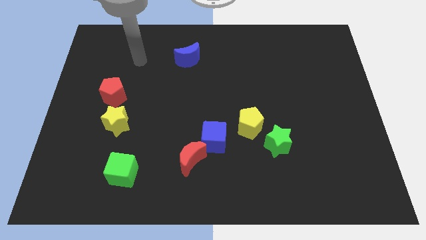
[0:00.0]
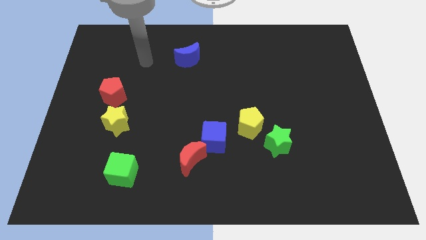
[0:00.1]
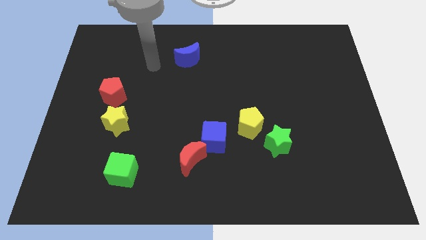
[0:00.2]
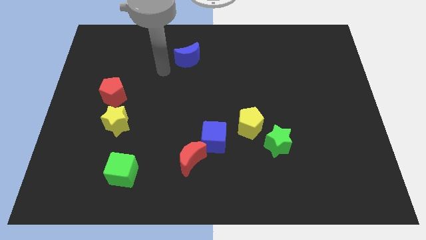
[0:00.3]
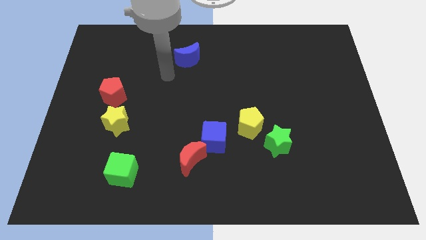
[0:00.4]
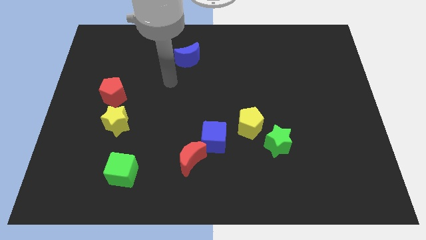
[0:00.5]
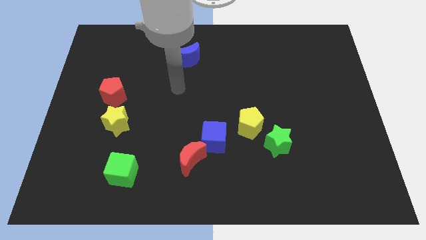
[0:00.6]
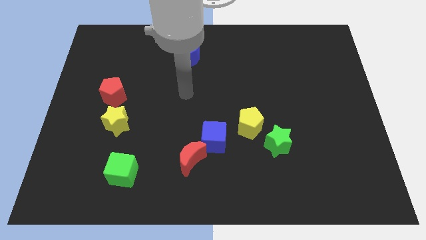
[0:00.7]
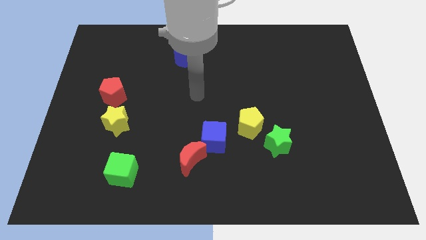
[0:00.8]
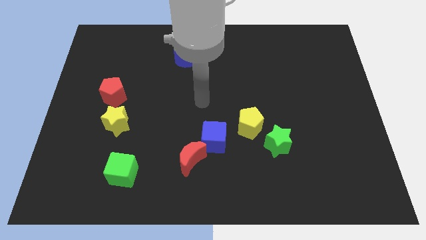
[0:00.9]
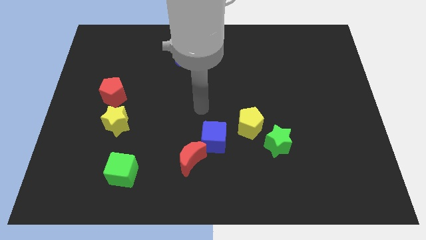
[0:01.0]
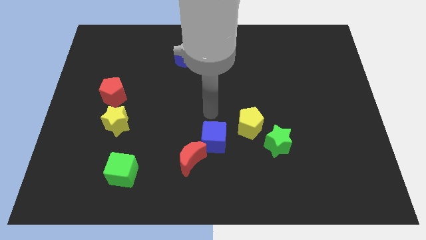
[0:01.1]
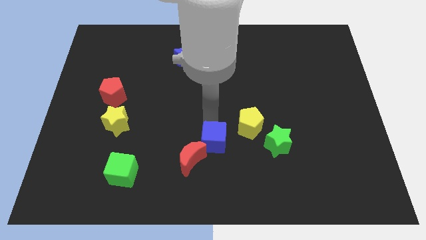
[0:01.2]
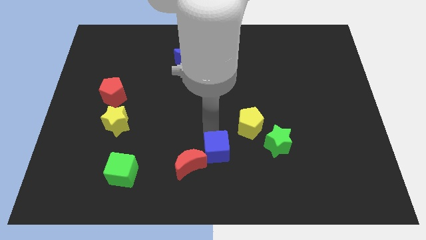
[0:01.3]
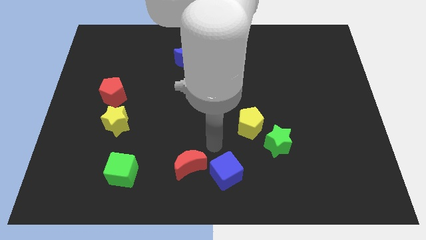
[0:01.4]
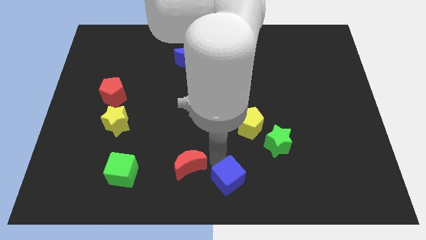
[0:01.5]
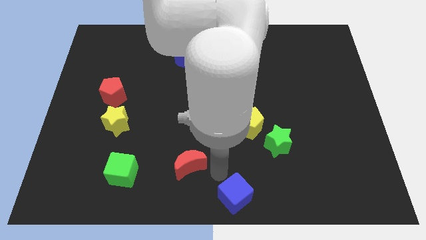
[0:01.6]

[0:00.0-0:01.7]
move the red moon away from the blue cube

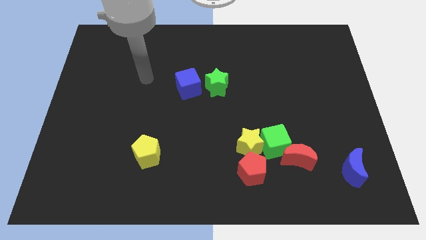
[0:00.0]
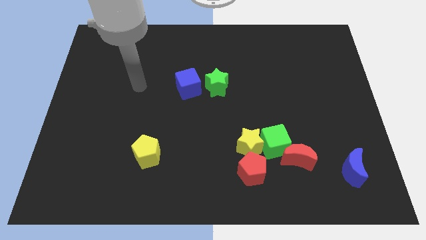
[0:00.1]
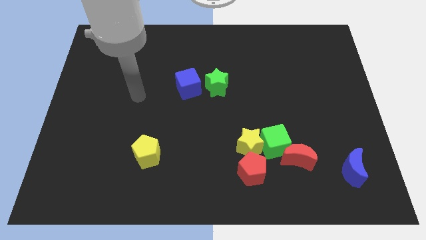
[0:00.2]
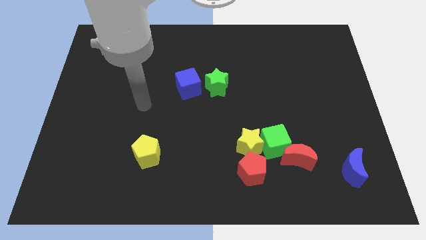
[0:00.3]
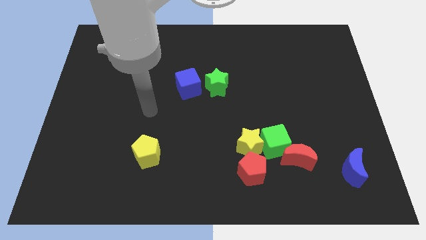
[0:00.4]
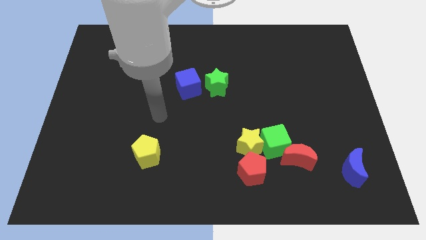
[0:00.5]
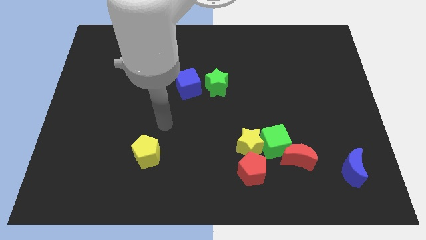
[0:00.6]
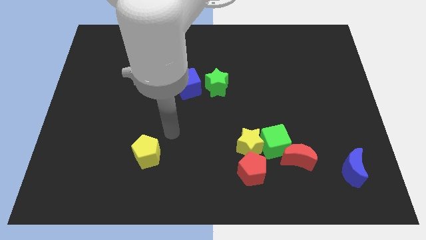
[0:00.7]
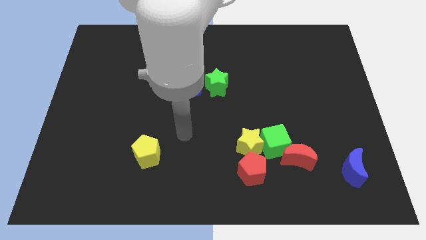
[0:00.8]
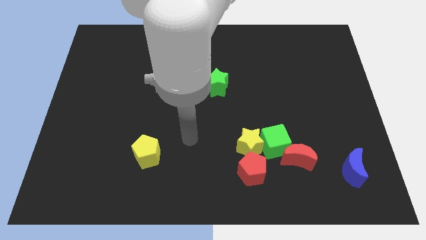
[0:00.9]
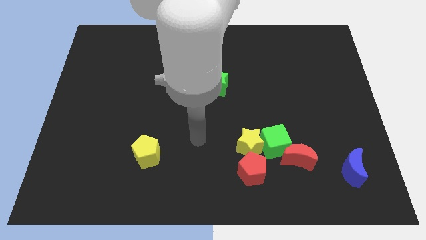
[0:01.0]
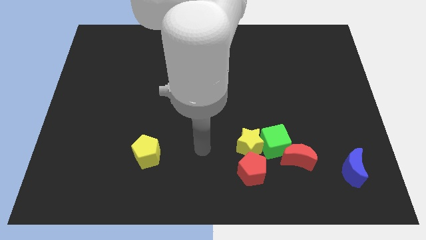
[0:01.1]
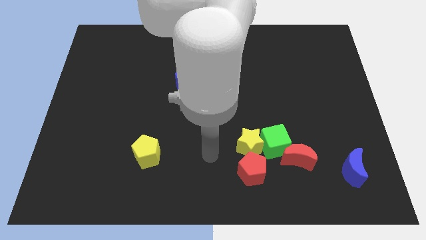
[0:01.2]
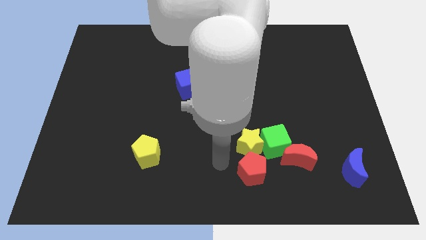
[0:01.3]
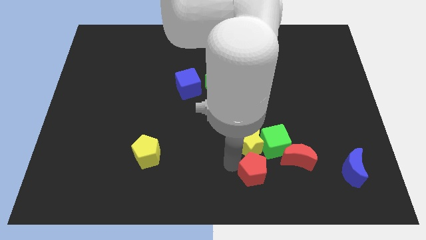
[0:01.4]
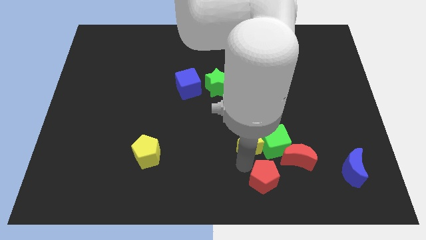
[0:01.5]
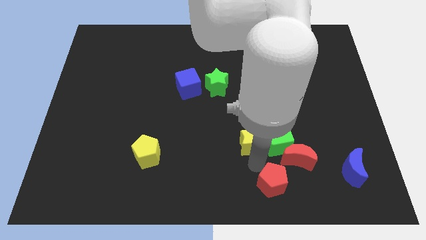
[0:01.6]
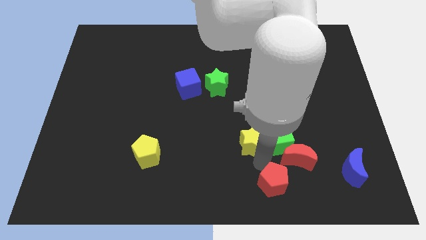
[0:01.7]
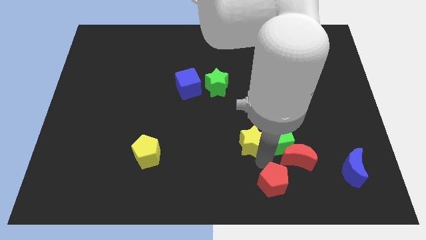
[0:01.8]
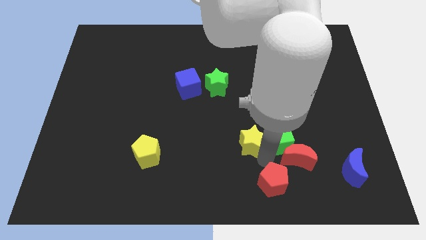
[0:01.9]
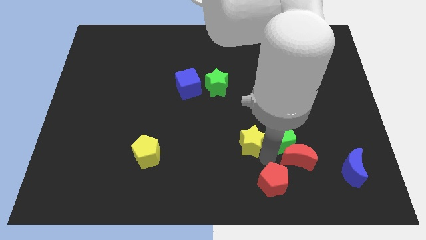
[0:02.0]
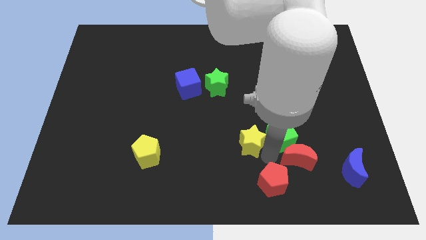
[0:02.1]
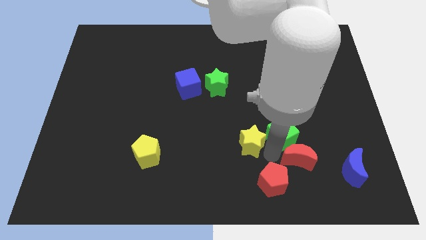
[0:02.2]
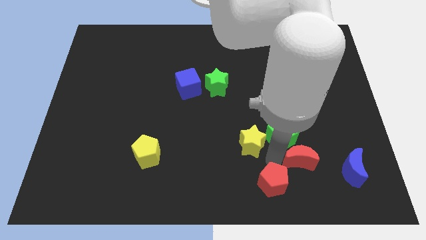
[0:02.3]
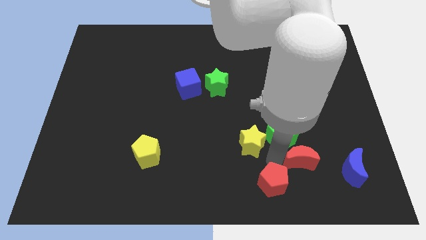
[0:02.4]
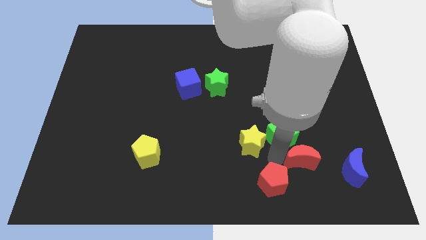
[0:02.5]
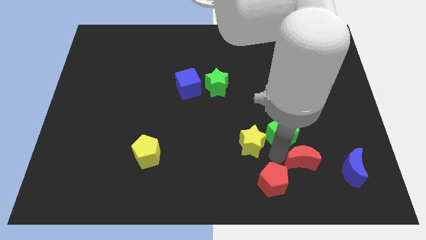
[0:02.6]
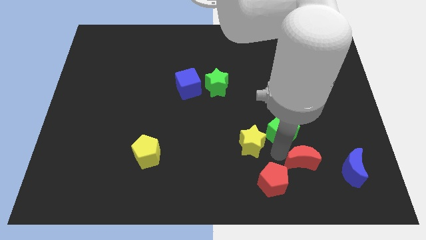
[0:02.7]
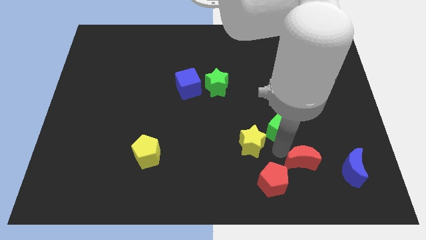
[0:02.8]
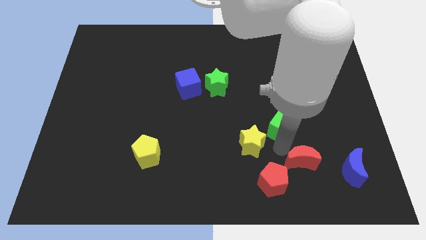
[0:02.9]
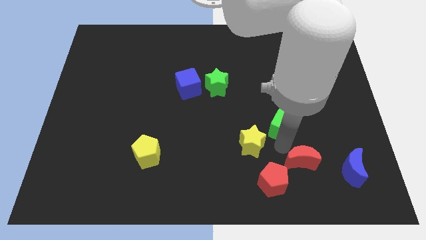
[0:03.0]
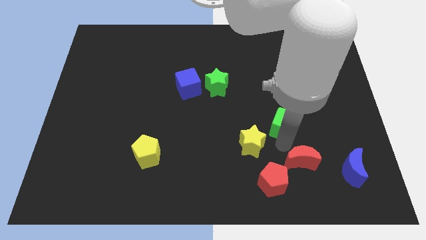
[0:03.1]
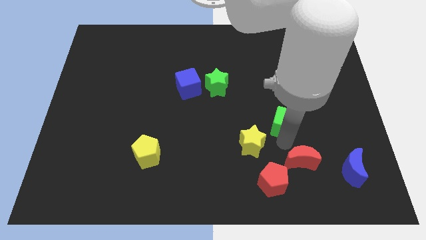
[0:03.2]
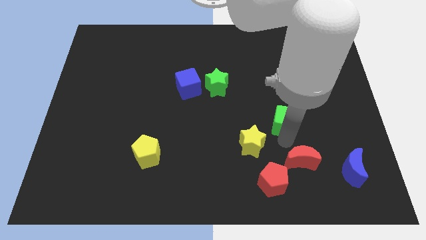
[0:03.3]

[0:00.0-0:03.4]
move the green cube away from the yellow star, red moon, and red pentagon

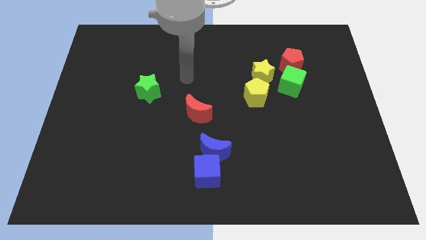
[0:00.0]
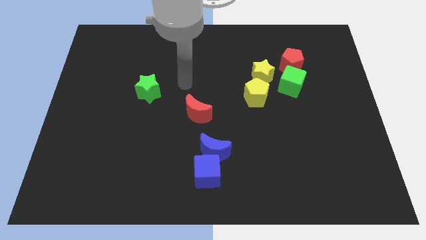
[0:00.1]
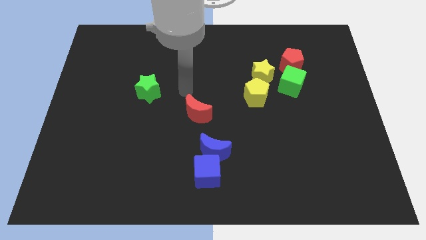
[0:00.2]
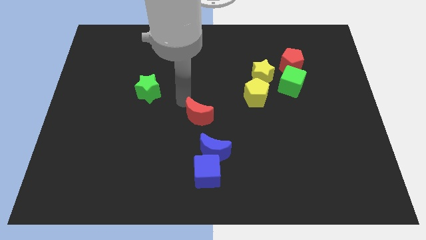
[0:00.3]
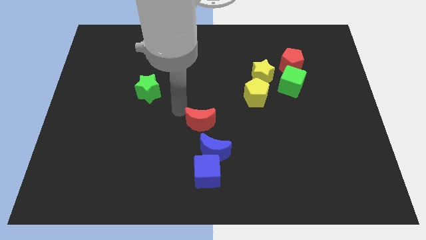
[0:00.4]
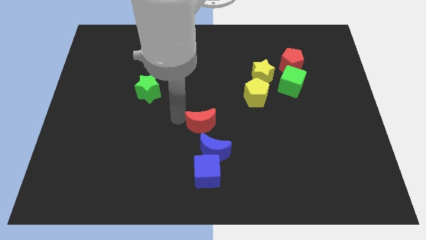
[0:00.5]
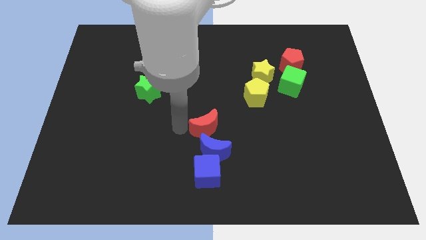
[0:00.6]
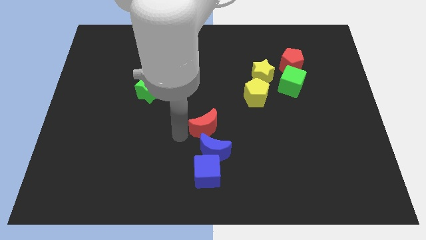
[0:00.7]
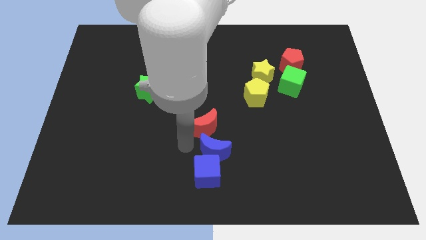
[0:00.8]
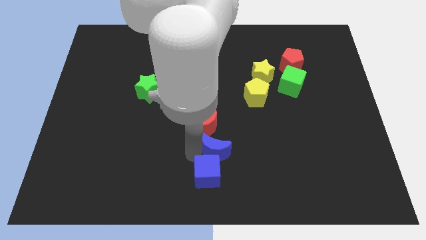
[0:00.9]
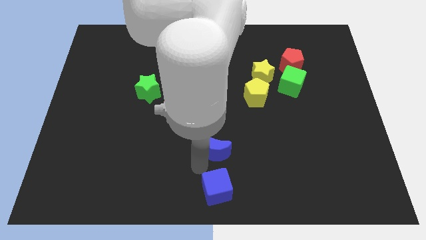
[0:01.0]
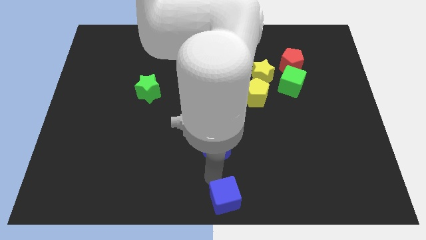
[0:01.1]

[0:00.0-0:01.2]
move the blue moon away from the blue cube

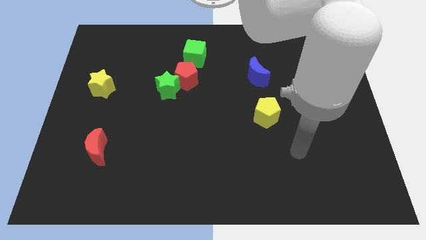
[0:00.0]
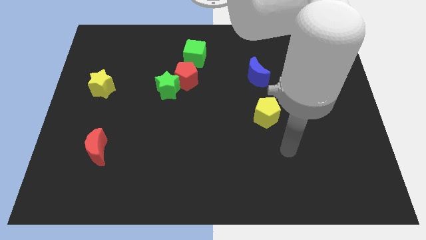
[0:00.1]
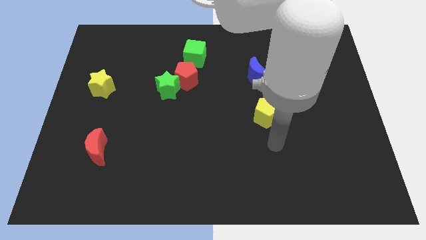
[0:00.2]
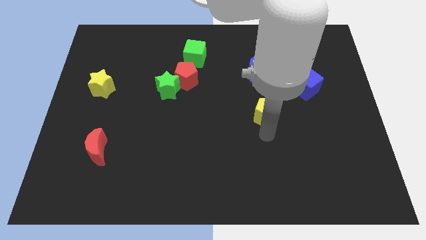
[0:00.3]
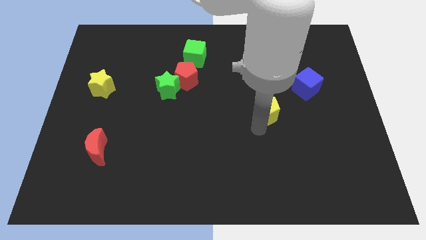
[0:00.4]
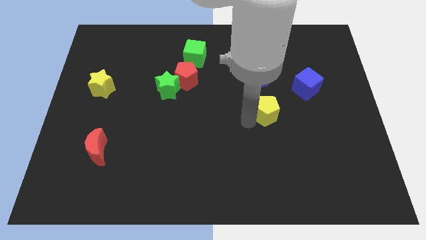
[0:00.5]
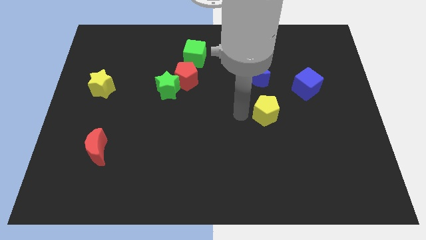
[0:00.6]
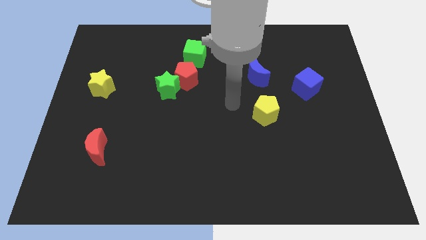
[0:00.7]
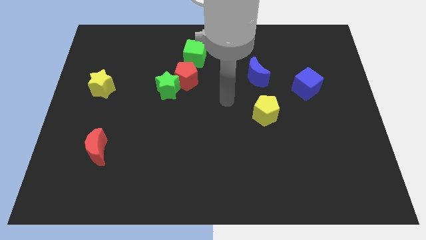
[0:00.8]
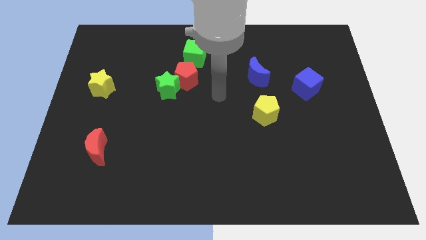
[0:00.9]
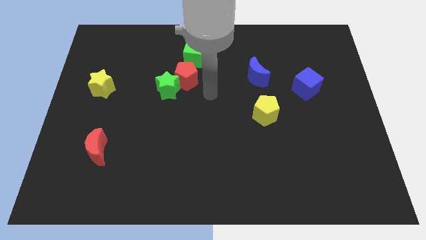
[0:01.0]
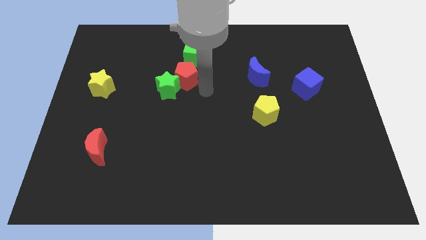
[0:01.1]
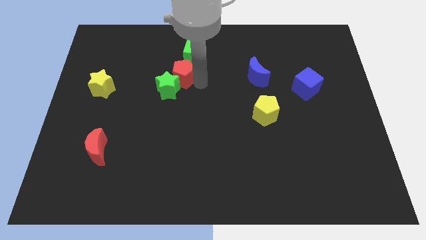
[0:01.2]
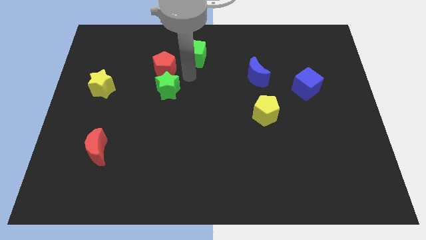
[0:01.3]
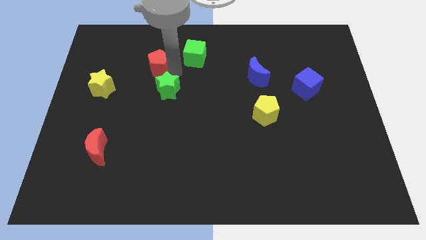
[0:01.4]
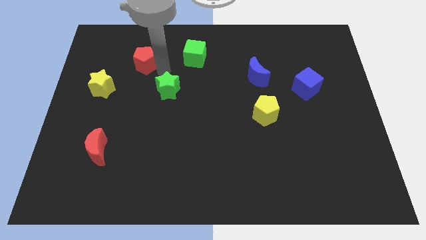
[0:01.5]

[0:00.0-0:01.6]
separate the green star from the red pentagon

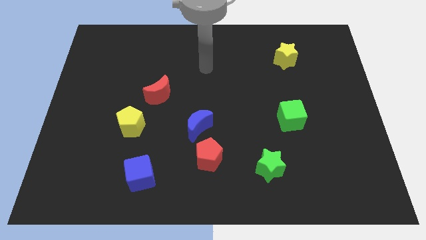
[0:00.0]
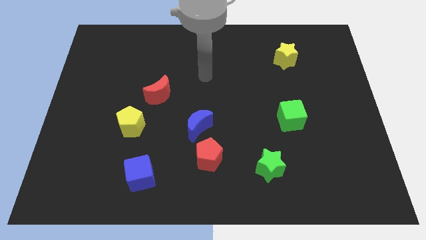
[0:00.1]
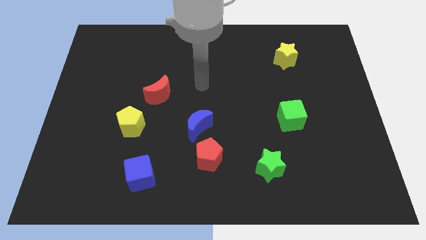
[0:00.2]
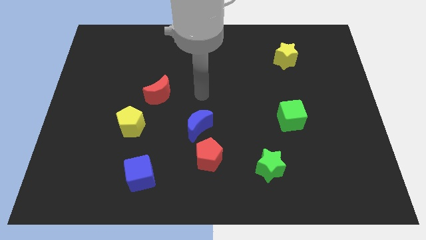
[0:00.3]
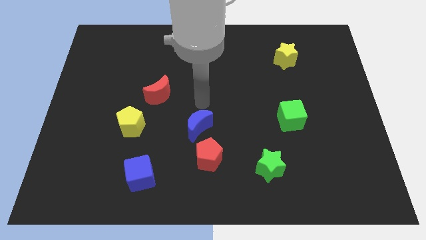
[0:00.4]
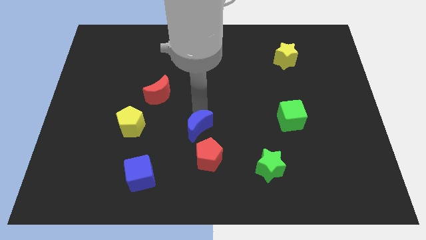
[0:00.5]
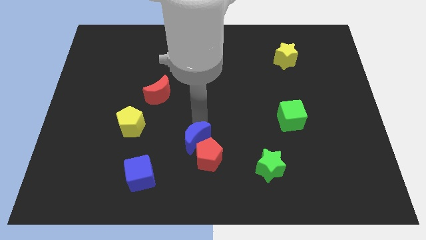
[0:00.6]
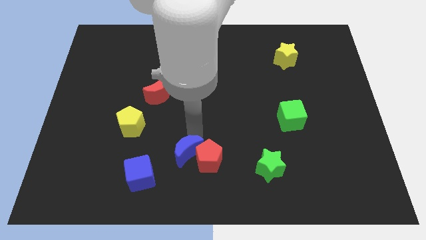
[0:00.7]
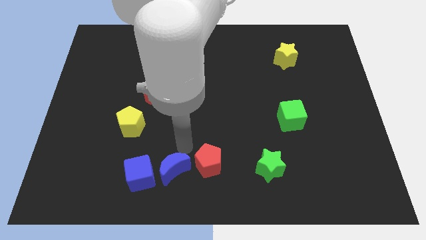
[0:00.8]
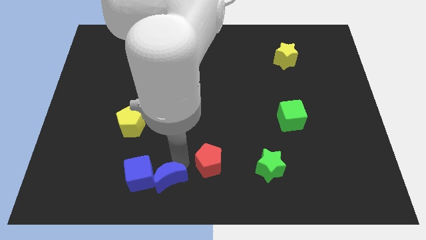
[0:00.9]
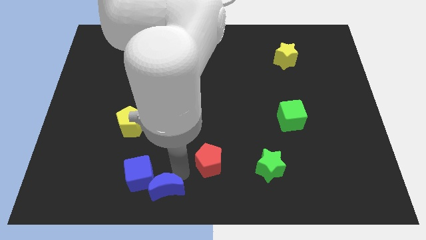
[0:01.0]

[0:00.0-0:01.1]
pull the red pentagon apart from the blue moon

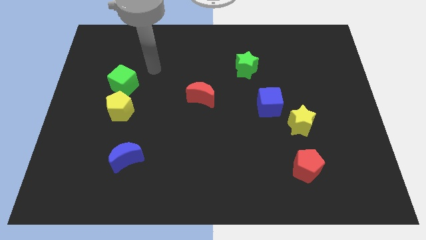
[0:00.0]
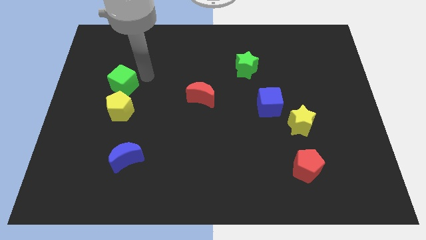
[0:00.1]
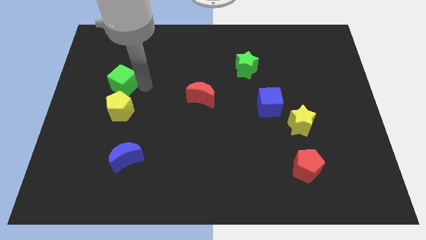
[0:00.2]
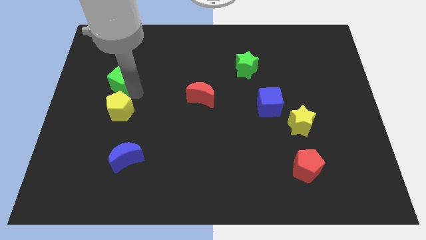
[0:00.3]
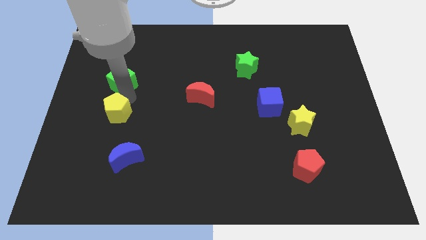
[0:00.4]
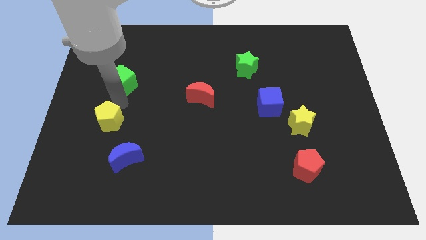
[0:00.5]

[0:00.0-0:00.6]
pull the green cube apart from the yellow pentagon
